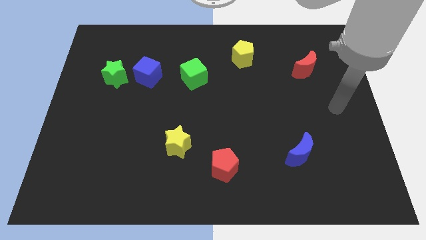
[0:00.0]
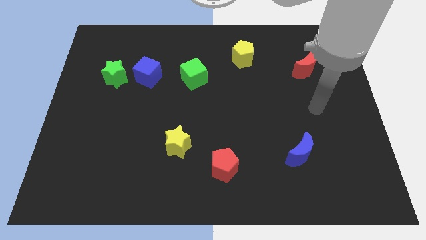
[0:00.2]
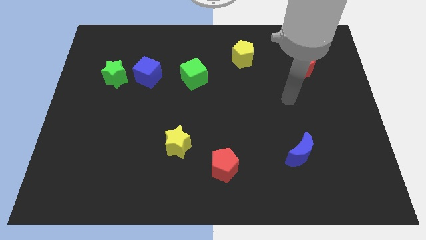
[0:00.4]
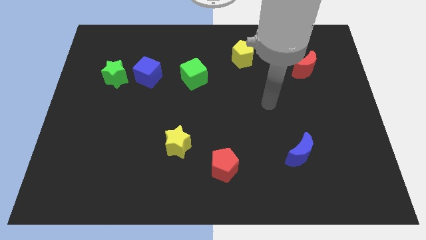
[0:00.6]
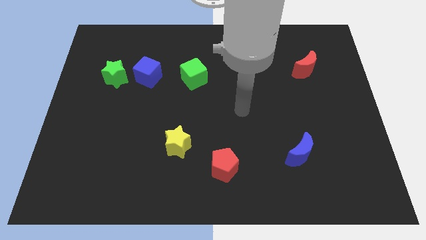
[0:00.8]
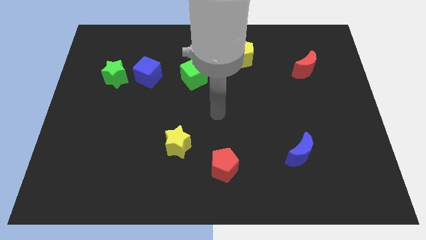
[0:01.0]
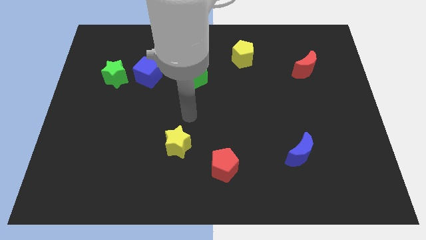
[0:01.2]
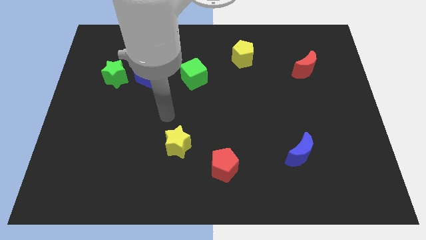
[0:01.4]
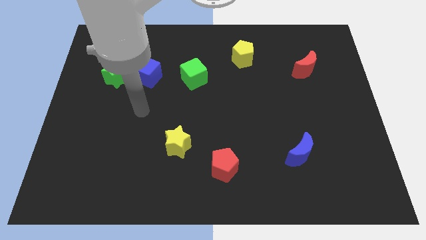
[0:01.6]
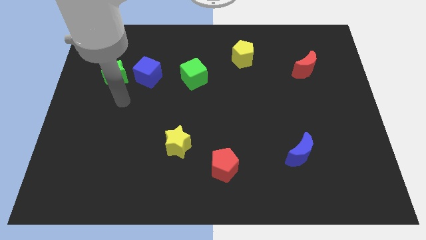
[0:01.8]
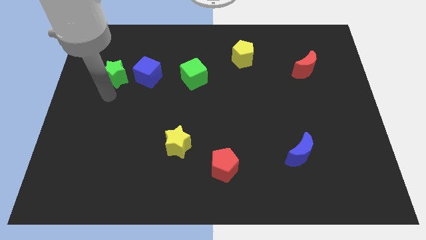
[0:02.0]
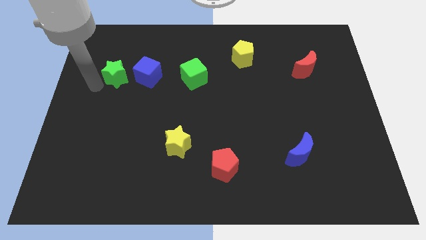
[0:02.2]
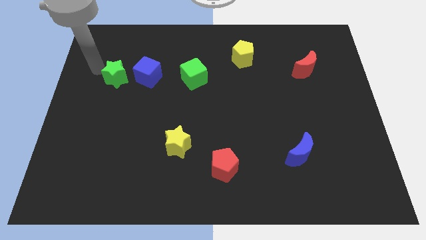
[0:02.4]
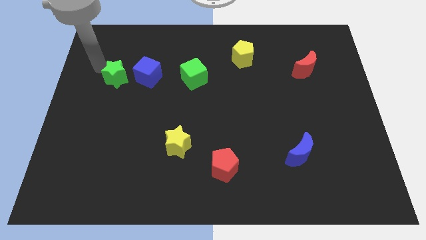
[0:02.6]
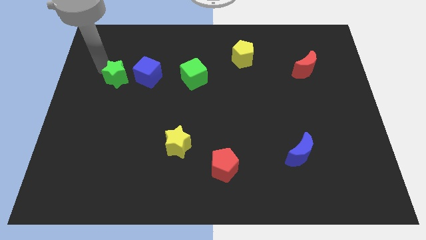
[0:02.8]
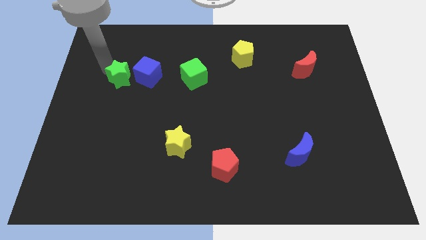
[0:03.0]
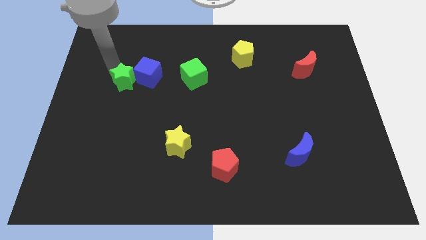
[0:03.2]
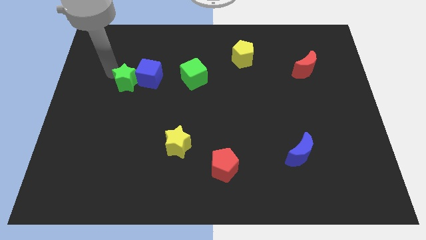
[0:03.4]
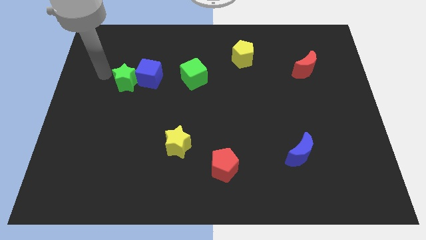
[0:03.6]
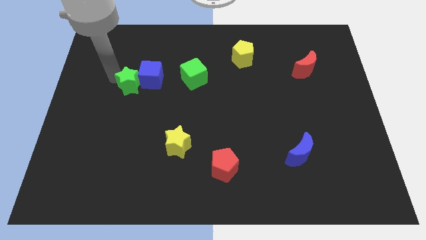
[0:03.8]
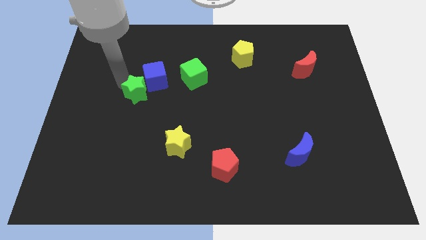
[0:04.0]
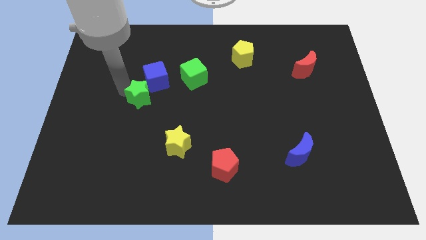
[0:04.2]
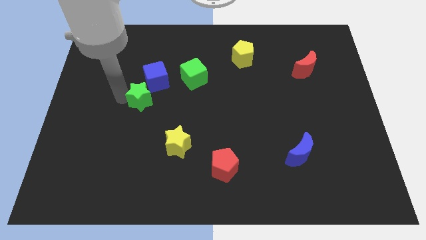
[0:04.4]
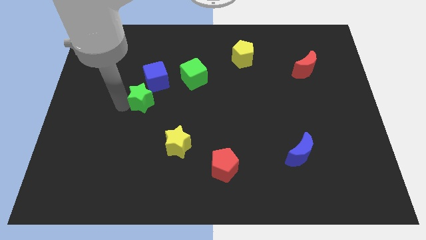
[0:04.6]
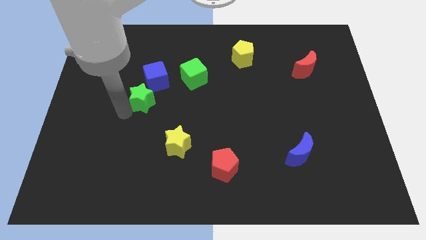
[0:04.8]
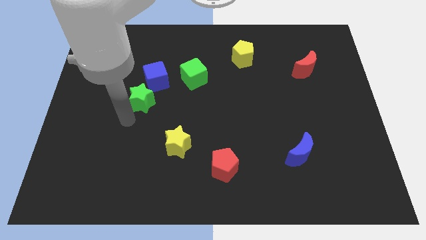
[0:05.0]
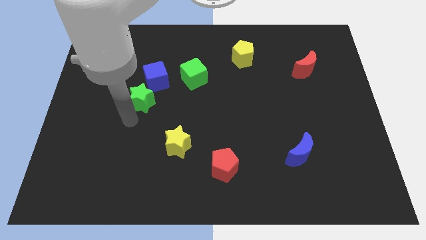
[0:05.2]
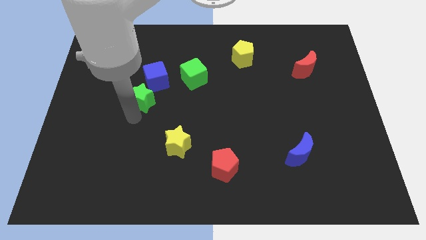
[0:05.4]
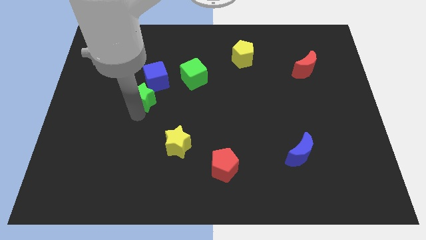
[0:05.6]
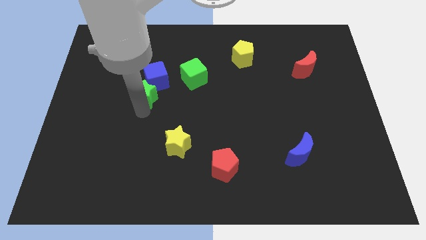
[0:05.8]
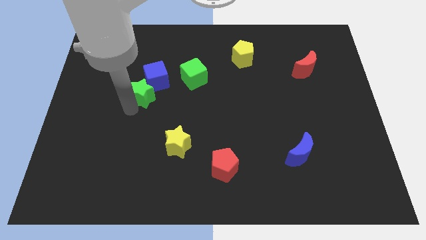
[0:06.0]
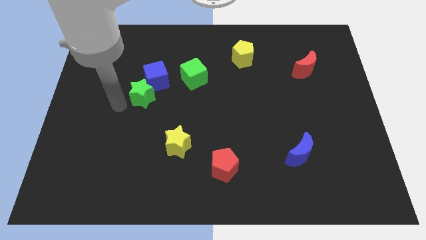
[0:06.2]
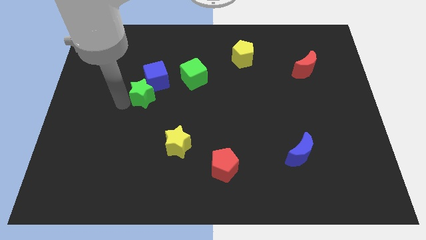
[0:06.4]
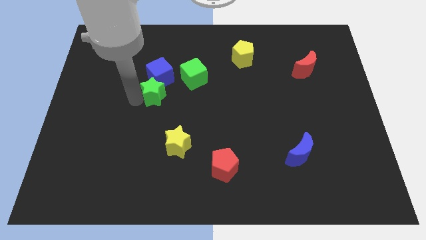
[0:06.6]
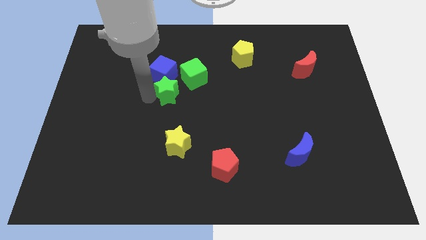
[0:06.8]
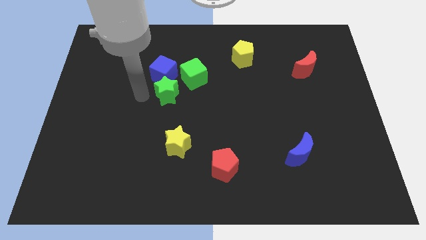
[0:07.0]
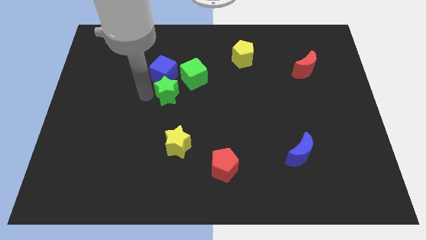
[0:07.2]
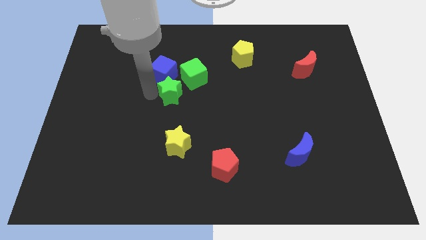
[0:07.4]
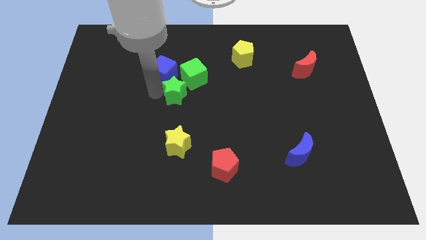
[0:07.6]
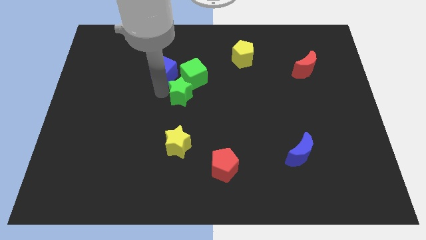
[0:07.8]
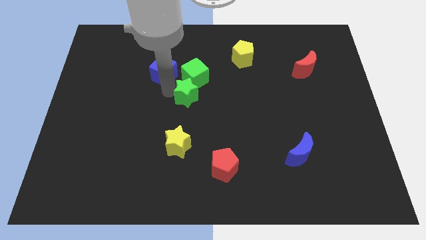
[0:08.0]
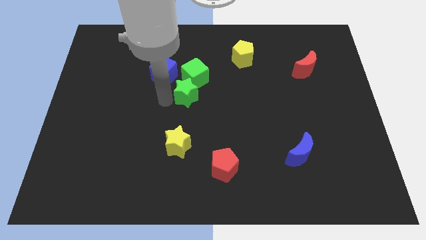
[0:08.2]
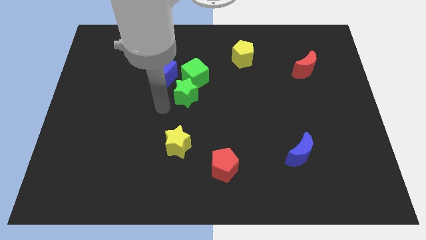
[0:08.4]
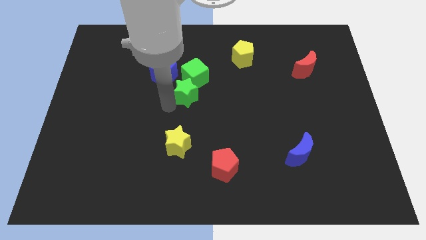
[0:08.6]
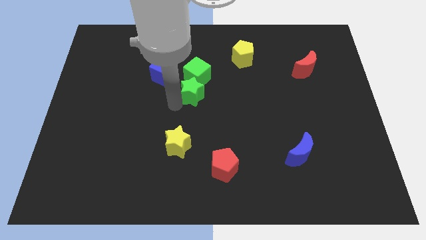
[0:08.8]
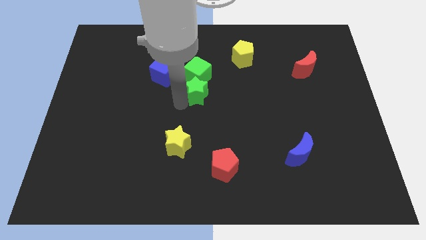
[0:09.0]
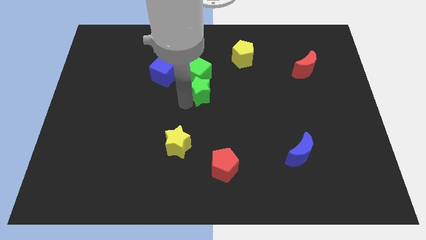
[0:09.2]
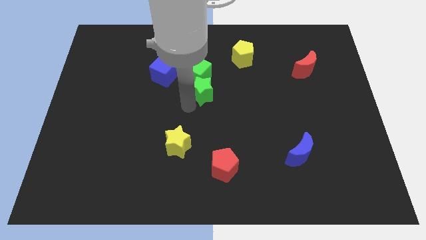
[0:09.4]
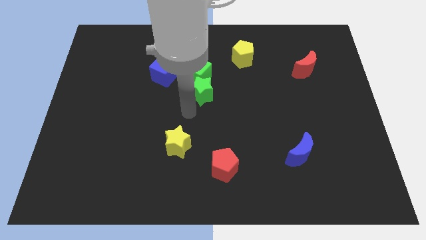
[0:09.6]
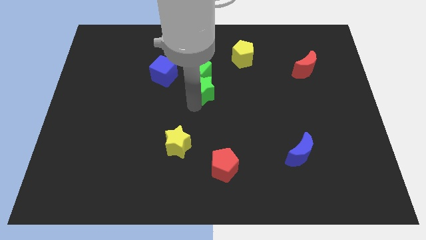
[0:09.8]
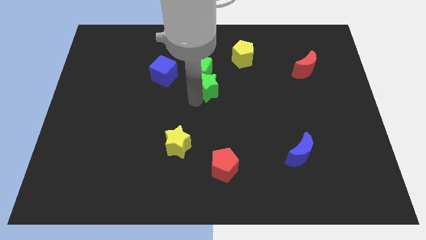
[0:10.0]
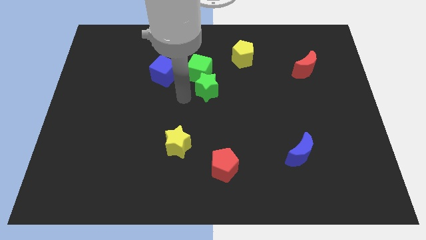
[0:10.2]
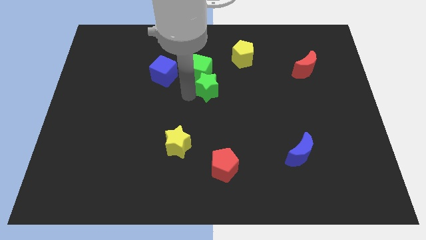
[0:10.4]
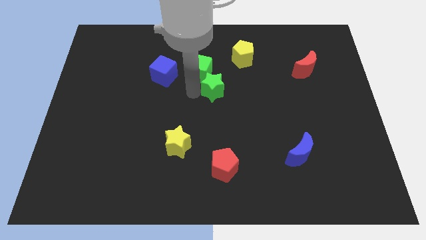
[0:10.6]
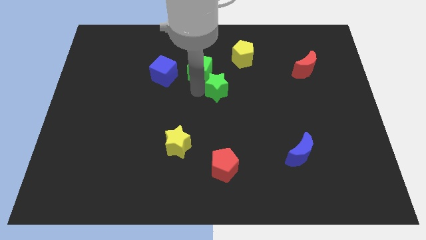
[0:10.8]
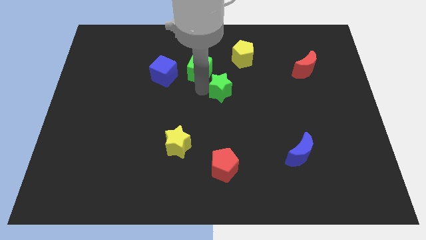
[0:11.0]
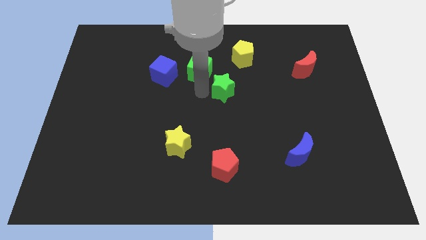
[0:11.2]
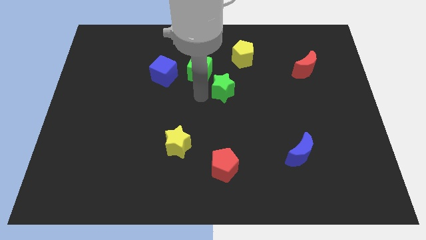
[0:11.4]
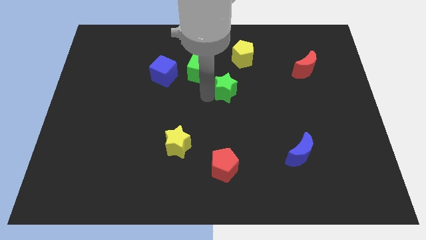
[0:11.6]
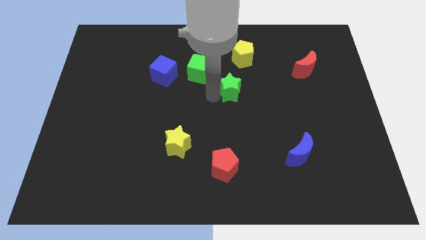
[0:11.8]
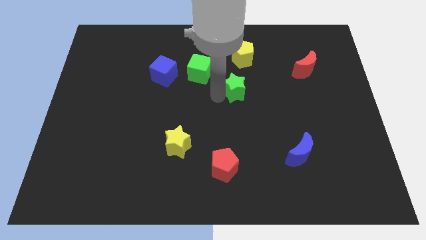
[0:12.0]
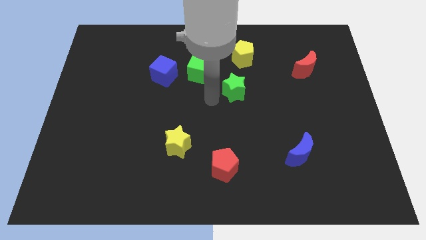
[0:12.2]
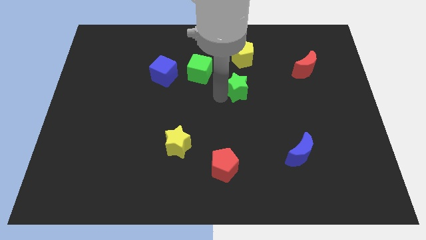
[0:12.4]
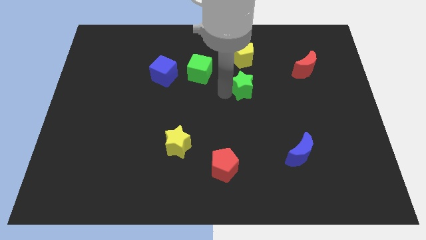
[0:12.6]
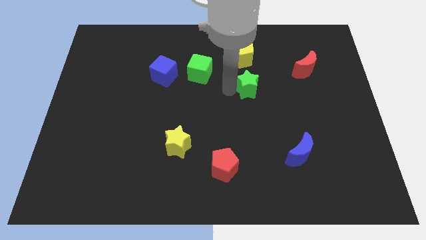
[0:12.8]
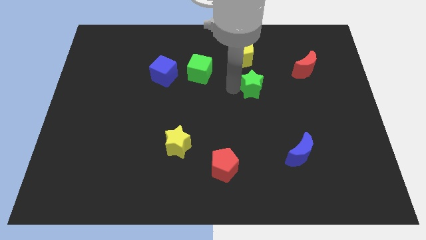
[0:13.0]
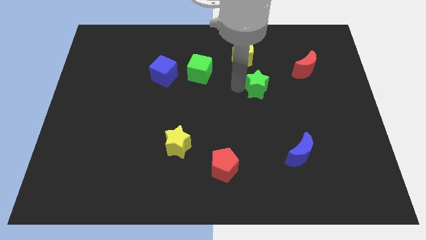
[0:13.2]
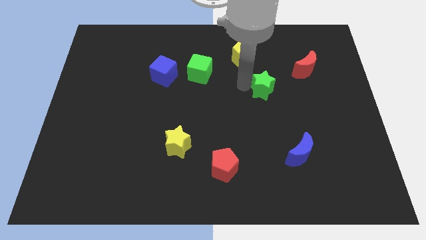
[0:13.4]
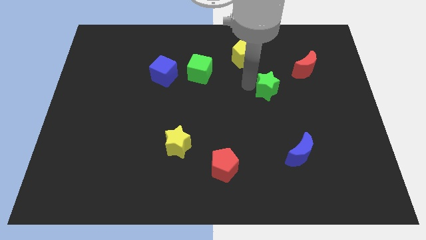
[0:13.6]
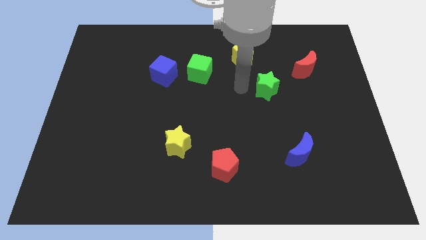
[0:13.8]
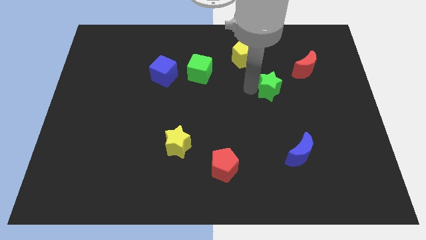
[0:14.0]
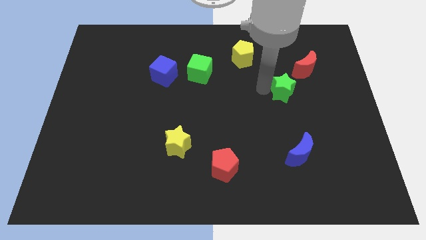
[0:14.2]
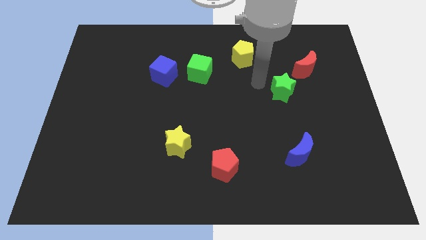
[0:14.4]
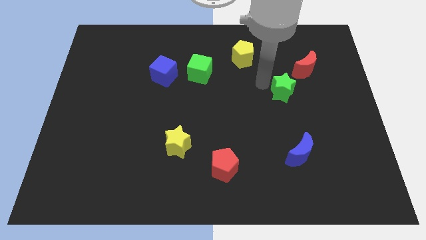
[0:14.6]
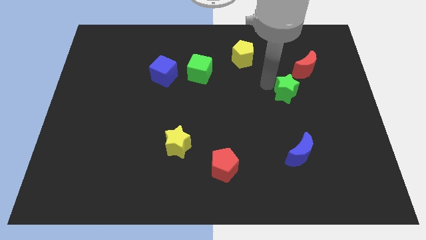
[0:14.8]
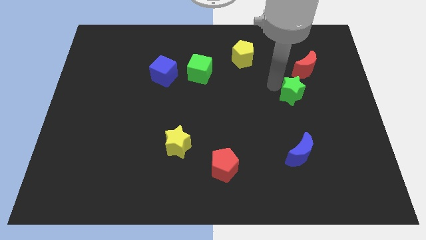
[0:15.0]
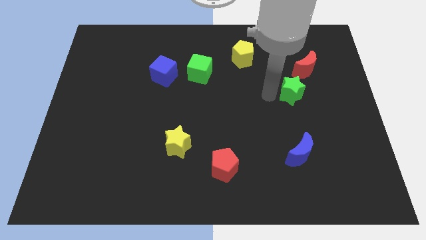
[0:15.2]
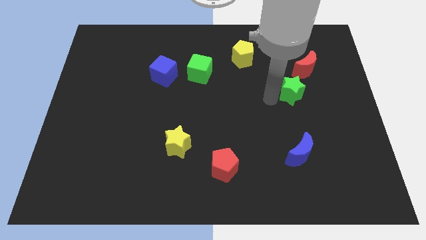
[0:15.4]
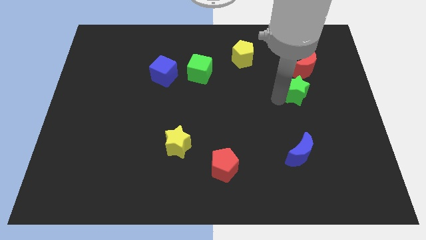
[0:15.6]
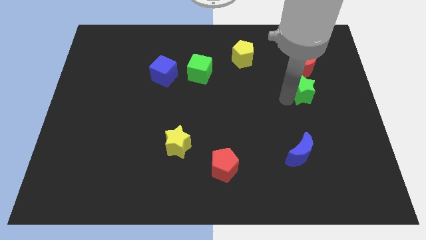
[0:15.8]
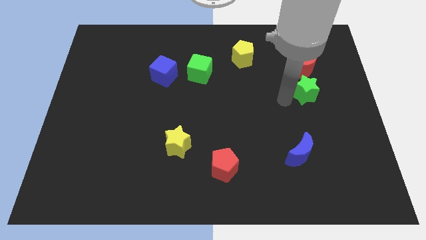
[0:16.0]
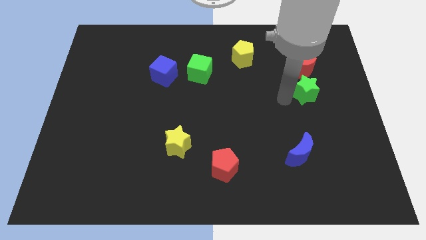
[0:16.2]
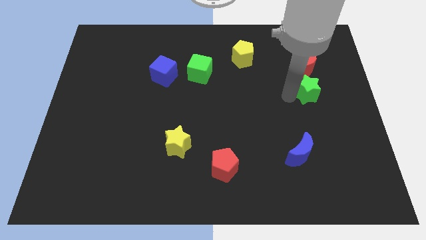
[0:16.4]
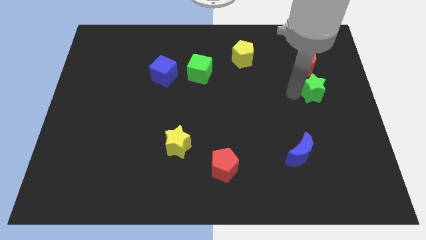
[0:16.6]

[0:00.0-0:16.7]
slide the green star to the bottom right of the red moon
